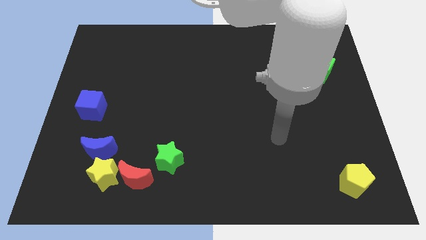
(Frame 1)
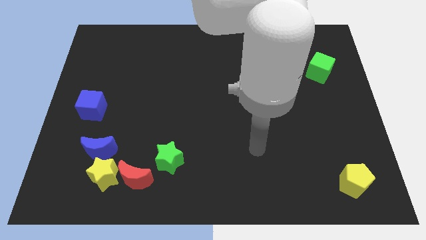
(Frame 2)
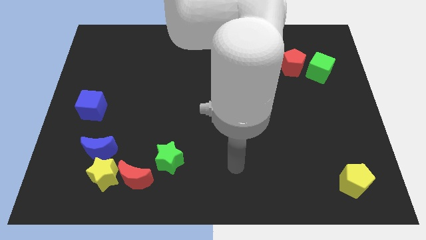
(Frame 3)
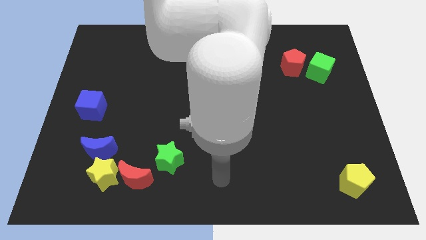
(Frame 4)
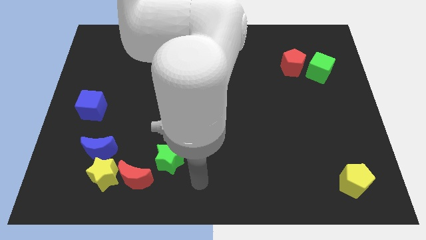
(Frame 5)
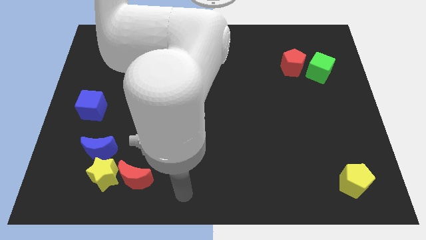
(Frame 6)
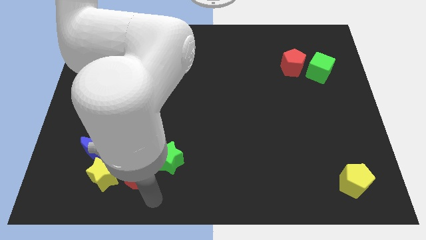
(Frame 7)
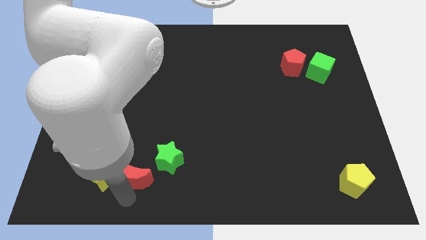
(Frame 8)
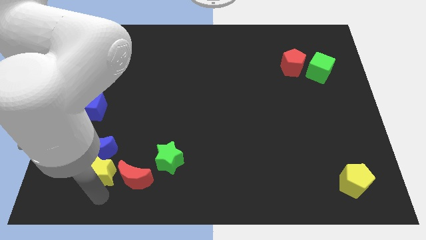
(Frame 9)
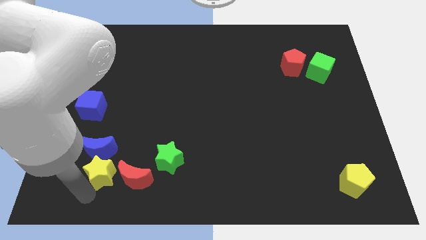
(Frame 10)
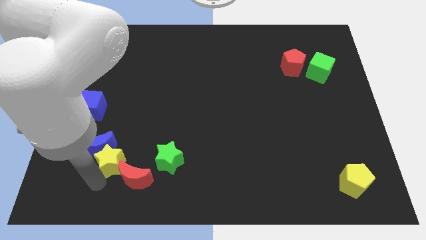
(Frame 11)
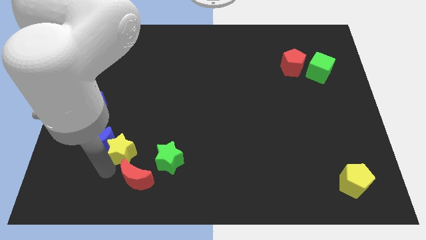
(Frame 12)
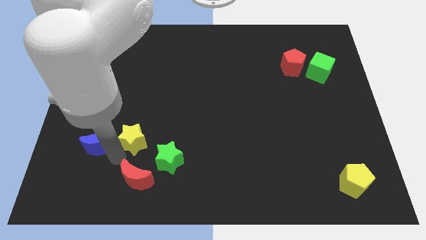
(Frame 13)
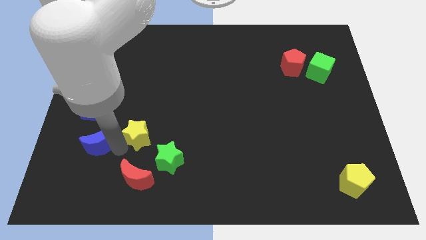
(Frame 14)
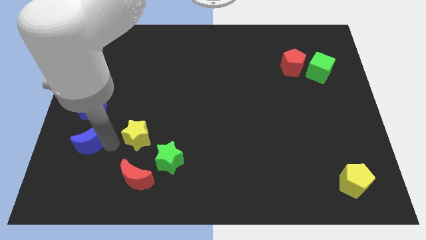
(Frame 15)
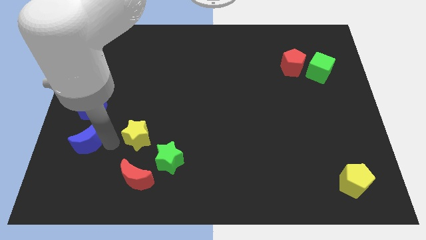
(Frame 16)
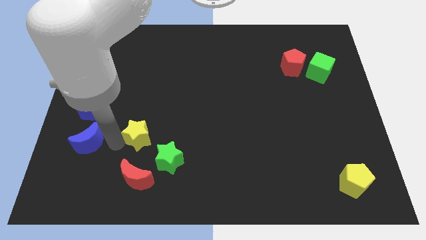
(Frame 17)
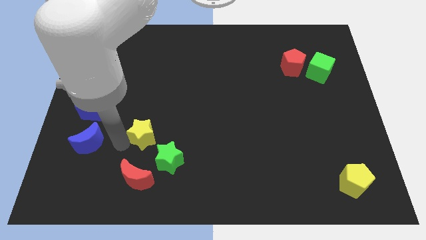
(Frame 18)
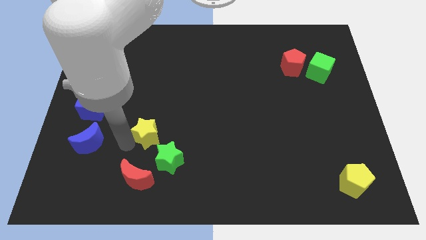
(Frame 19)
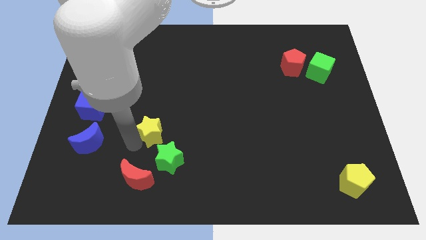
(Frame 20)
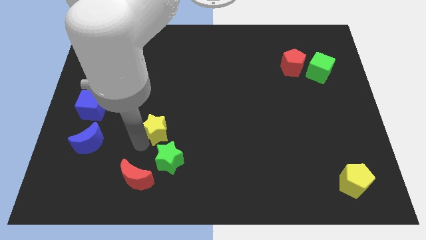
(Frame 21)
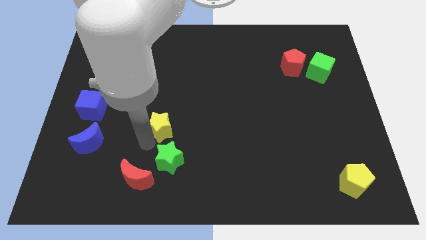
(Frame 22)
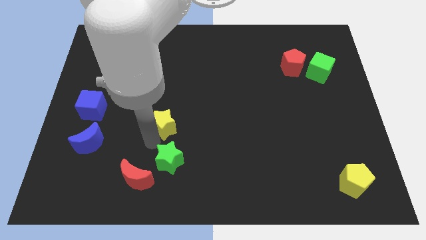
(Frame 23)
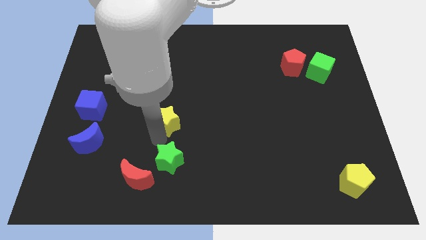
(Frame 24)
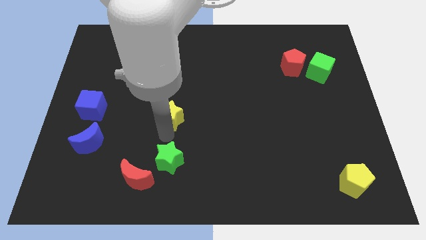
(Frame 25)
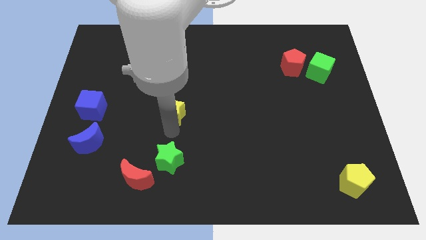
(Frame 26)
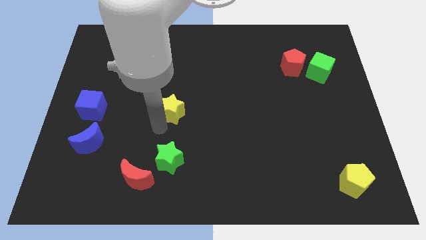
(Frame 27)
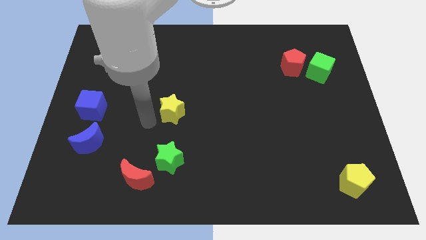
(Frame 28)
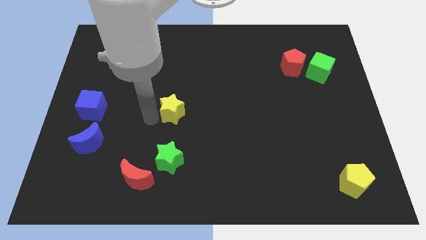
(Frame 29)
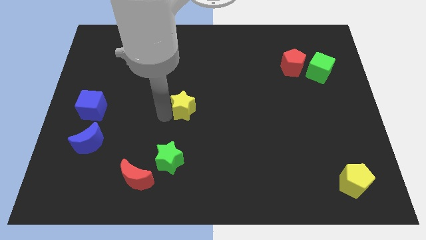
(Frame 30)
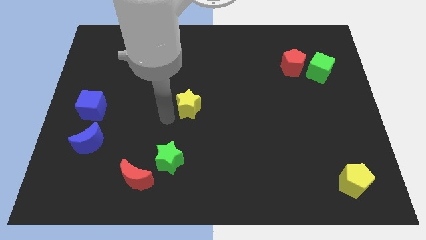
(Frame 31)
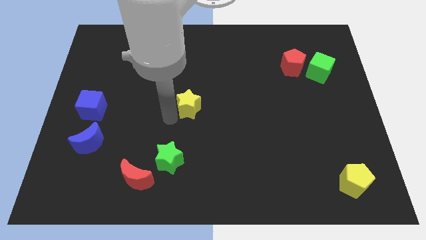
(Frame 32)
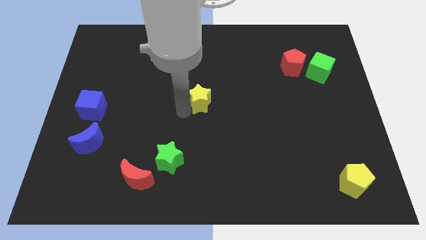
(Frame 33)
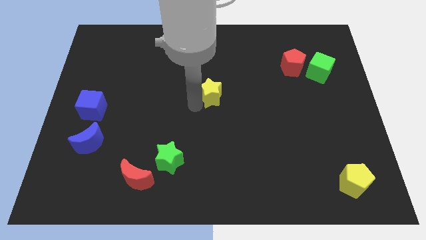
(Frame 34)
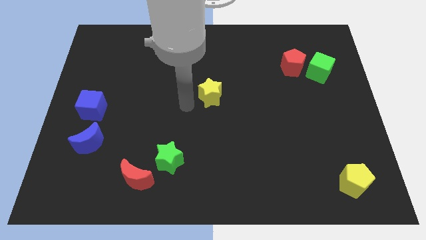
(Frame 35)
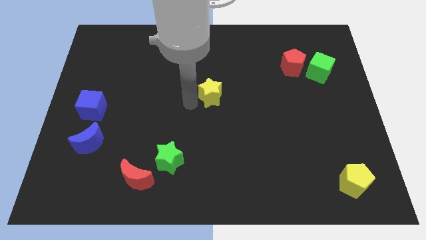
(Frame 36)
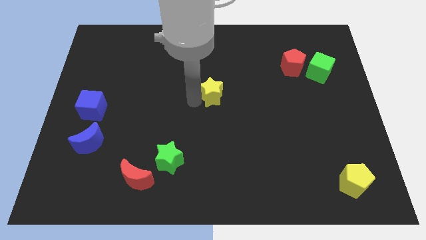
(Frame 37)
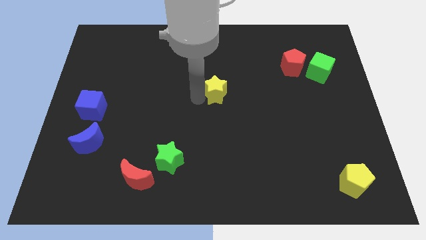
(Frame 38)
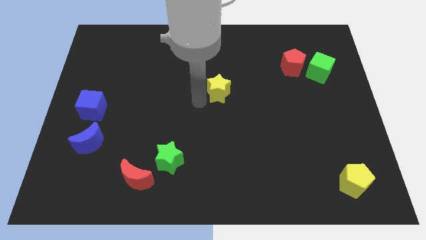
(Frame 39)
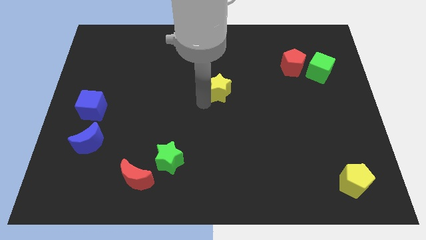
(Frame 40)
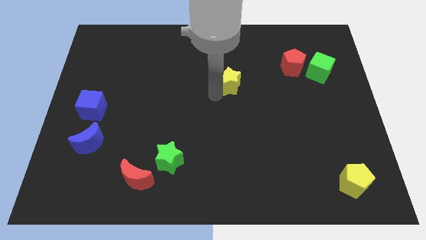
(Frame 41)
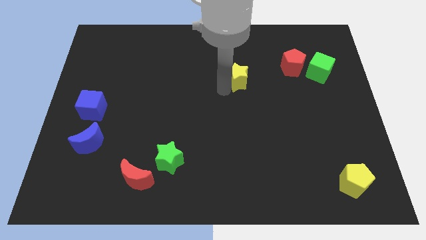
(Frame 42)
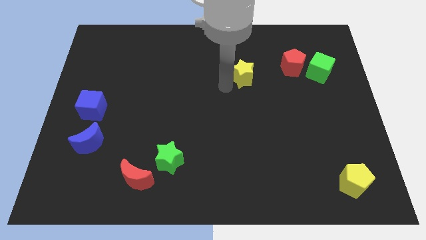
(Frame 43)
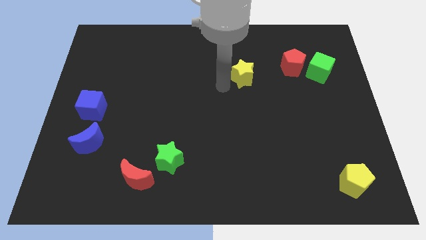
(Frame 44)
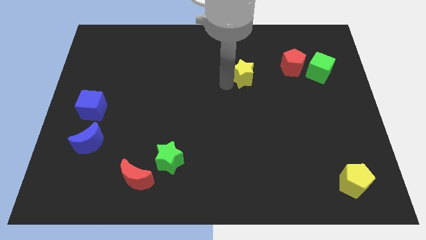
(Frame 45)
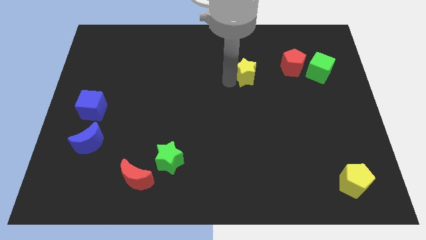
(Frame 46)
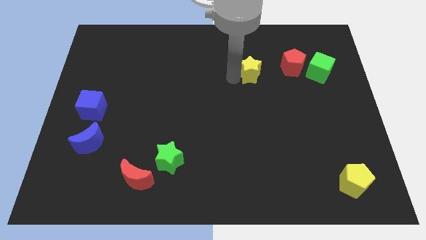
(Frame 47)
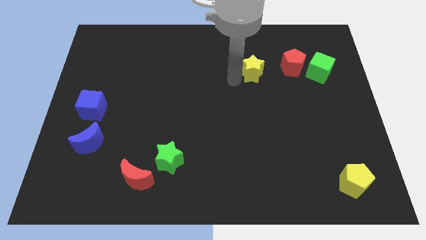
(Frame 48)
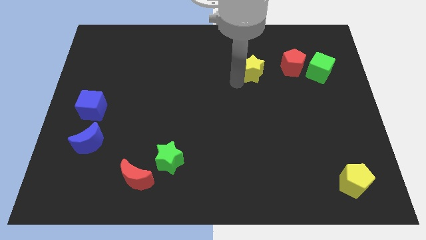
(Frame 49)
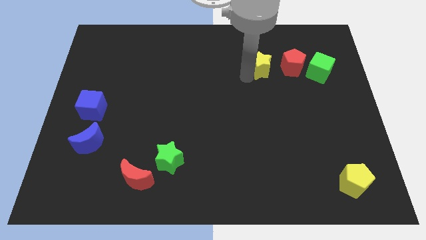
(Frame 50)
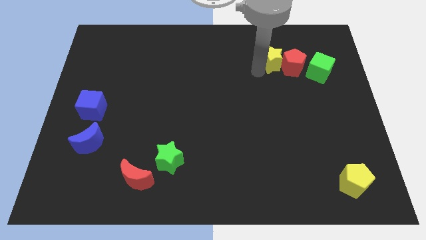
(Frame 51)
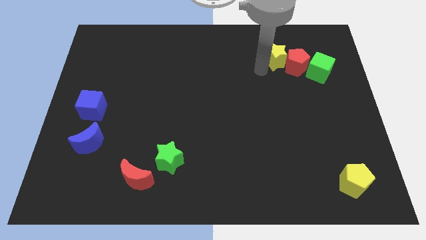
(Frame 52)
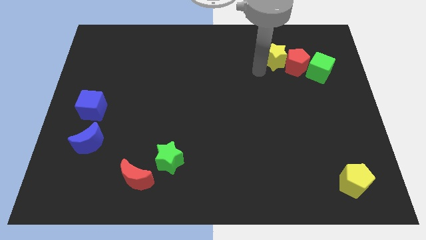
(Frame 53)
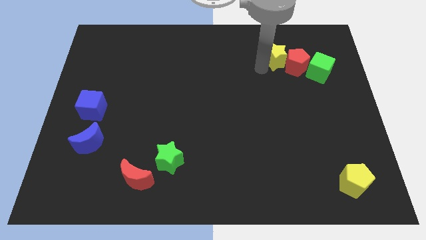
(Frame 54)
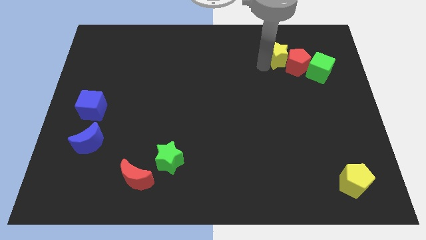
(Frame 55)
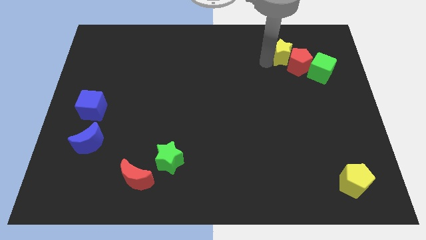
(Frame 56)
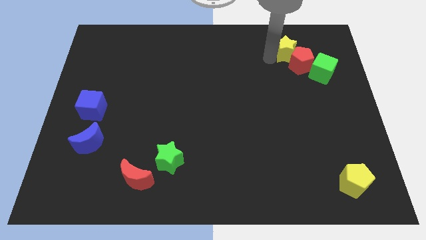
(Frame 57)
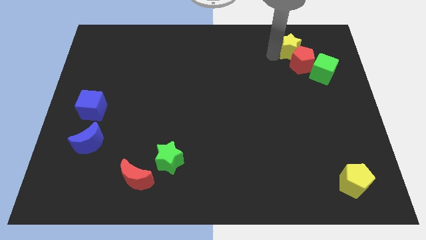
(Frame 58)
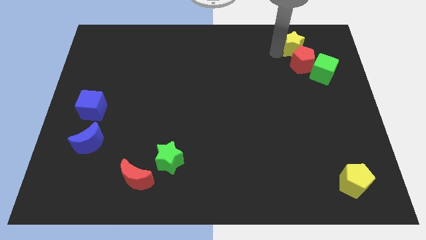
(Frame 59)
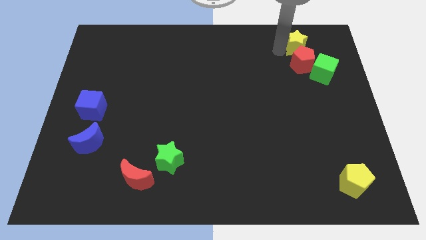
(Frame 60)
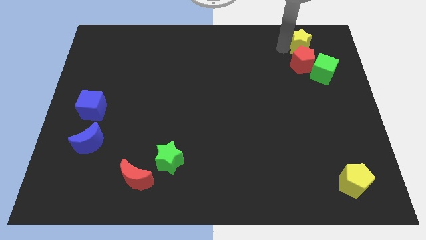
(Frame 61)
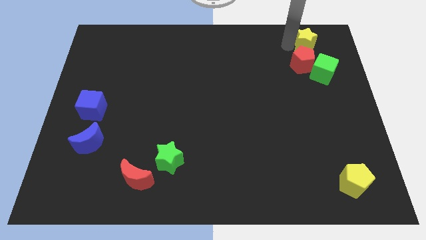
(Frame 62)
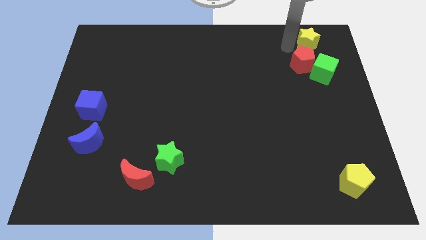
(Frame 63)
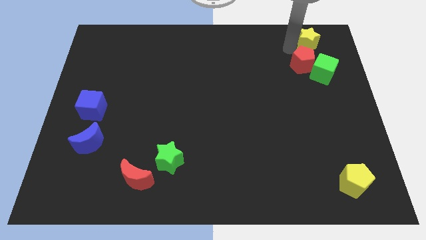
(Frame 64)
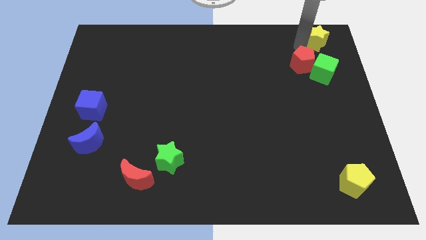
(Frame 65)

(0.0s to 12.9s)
slide the yellow star to the upper right corner

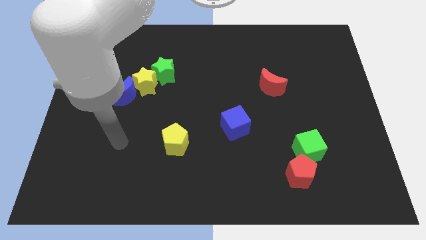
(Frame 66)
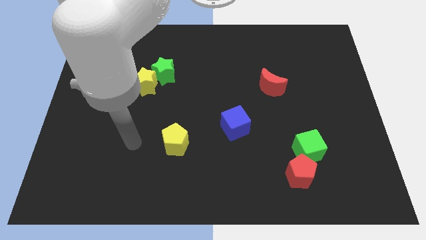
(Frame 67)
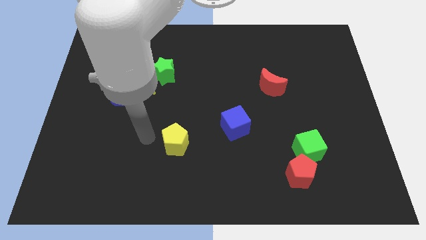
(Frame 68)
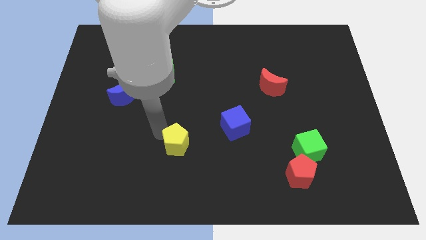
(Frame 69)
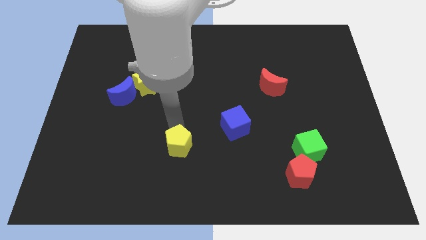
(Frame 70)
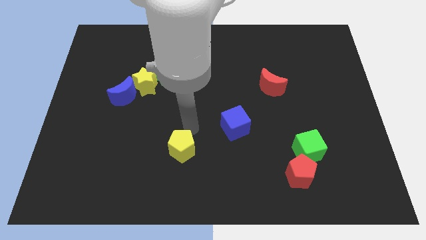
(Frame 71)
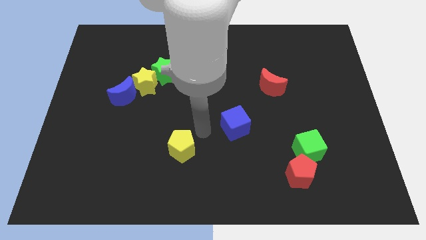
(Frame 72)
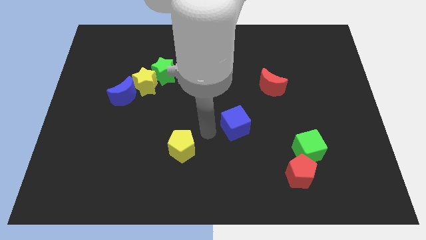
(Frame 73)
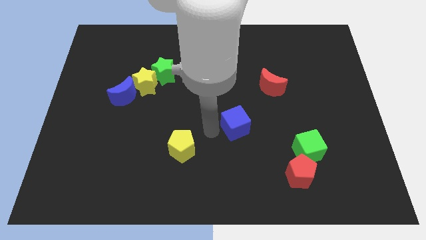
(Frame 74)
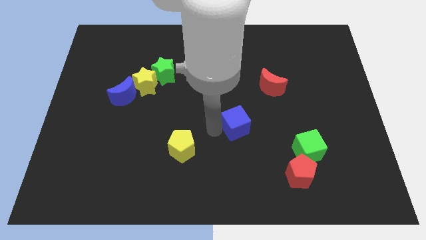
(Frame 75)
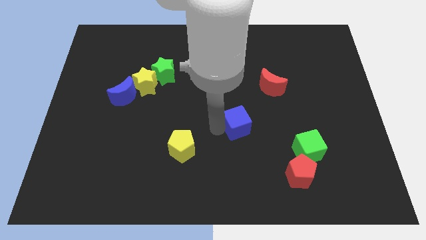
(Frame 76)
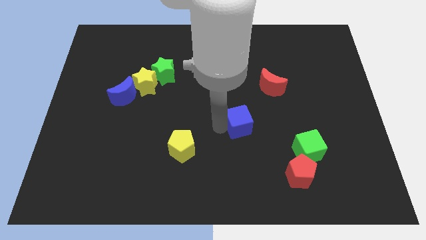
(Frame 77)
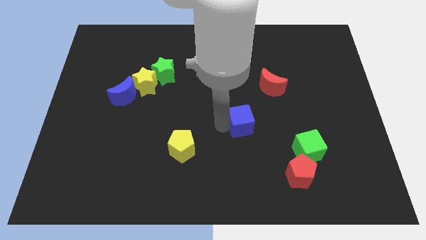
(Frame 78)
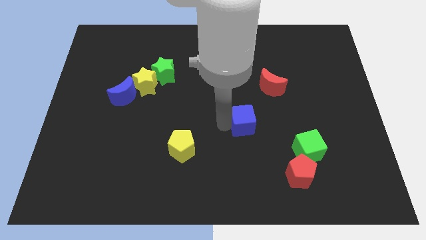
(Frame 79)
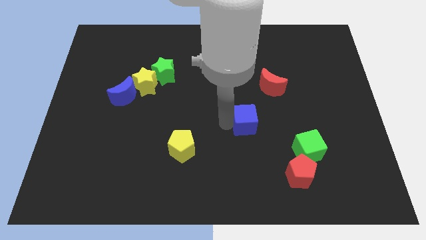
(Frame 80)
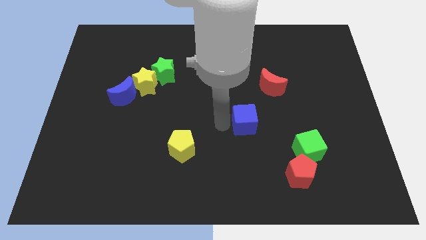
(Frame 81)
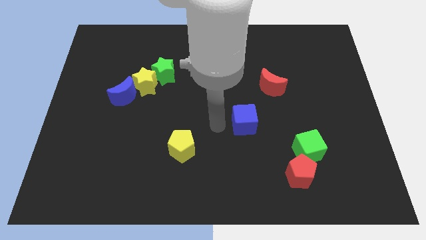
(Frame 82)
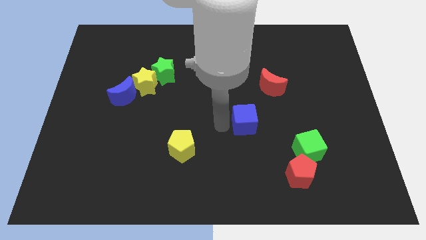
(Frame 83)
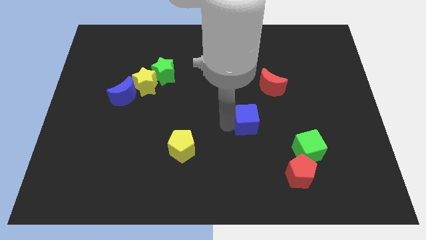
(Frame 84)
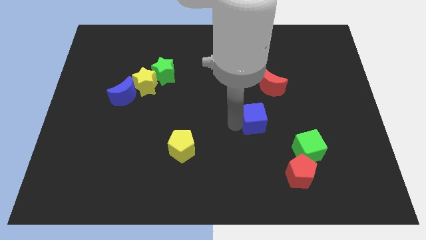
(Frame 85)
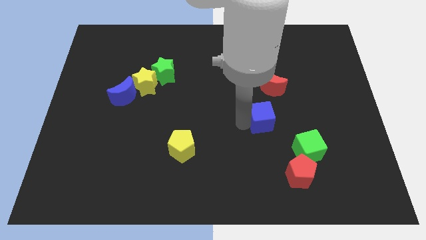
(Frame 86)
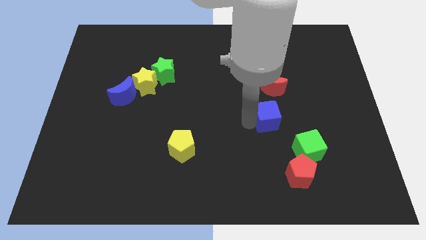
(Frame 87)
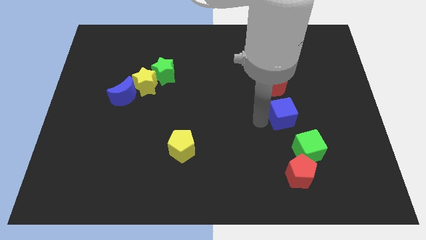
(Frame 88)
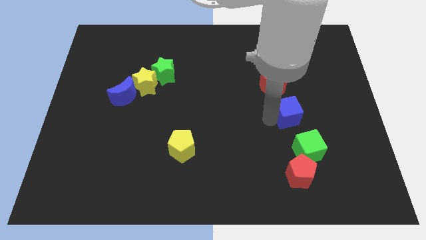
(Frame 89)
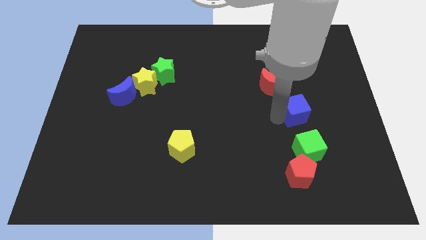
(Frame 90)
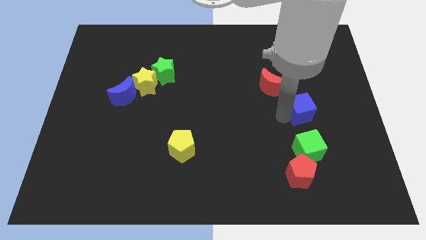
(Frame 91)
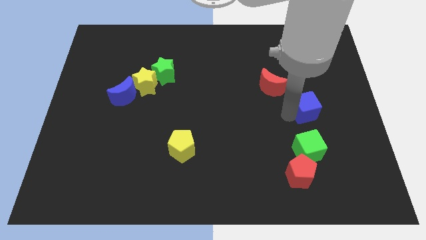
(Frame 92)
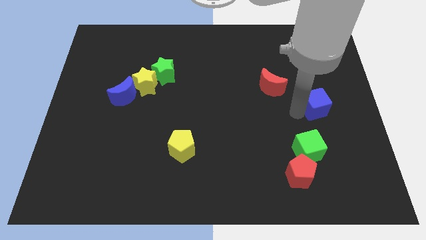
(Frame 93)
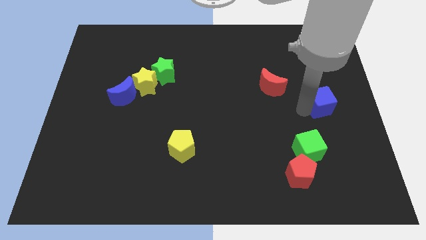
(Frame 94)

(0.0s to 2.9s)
move the blue cube to the right side
